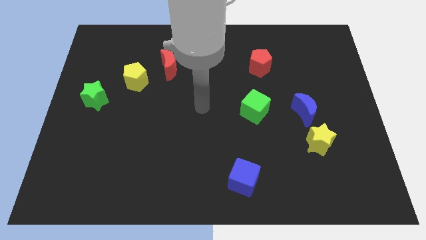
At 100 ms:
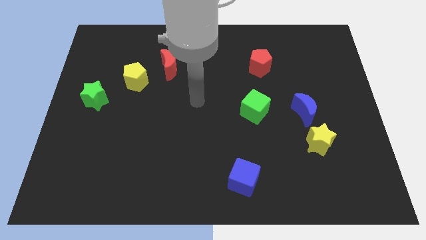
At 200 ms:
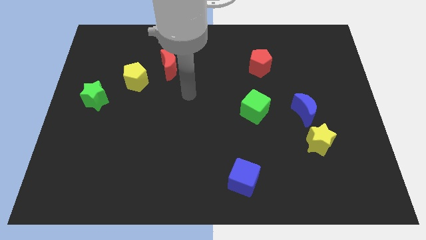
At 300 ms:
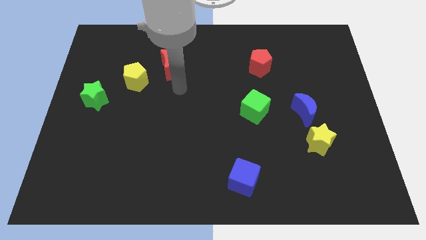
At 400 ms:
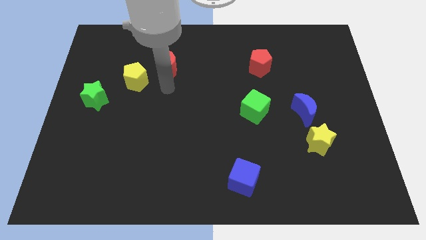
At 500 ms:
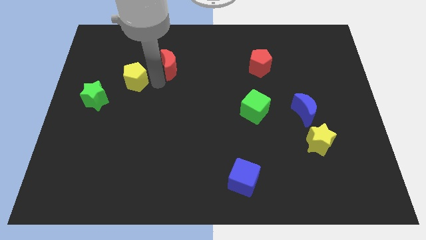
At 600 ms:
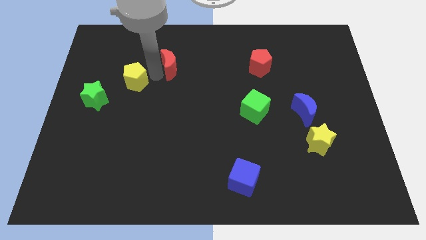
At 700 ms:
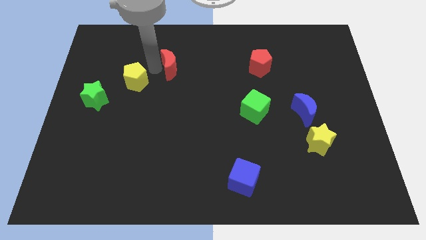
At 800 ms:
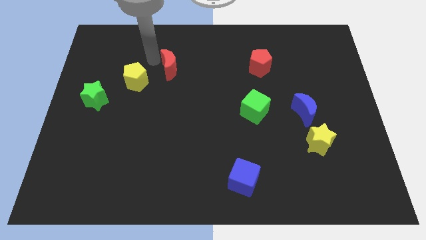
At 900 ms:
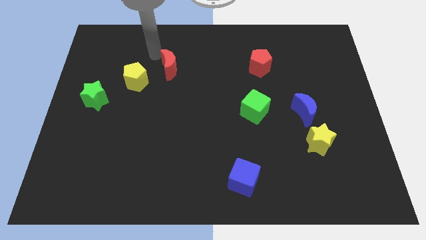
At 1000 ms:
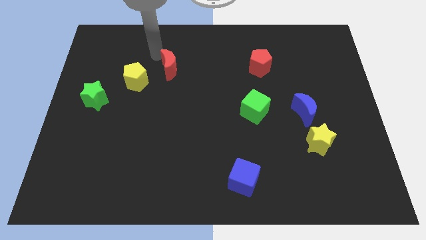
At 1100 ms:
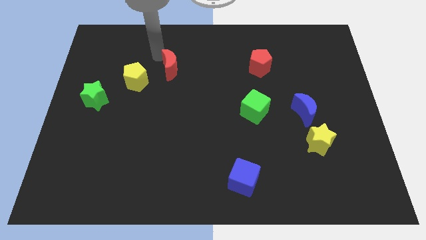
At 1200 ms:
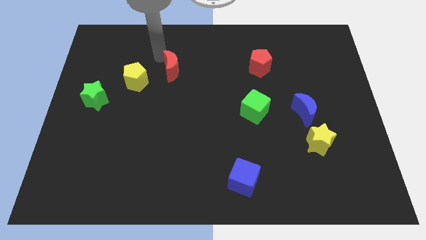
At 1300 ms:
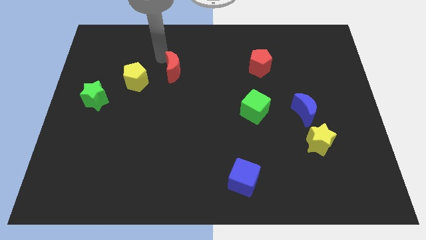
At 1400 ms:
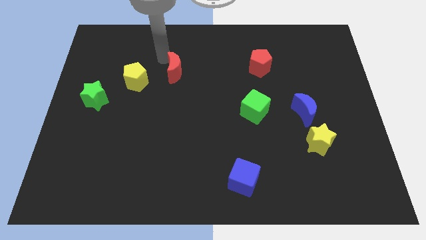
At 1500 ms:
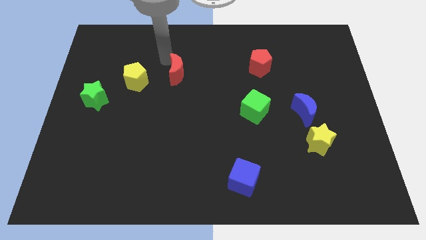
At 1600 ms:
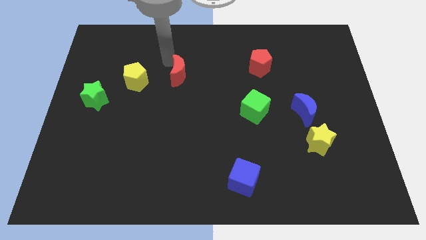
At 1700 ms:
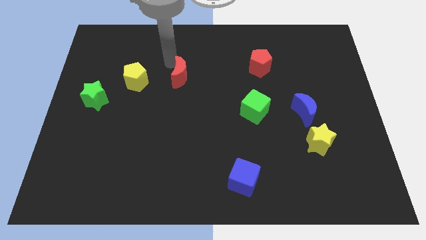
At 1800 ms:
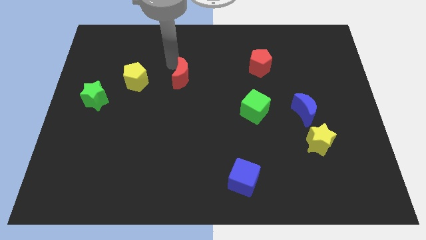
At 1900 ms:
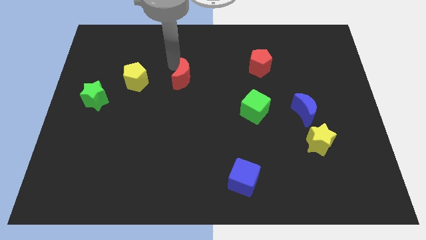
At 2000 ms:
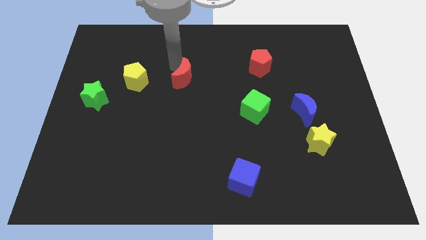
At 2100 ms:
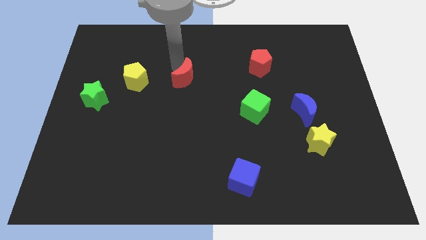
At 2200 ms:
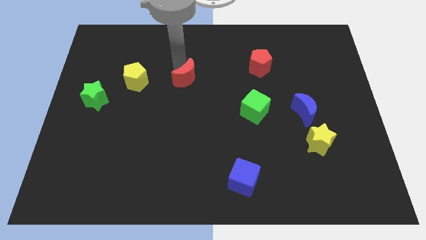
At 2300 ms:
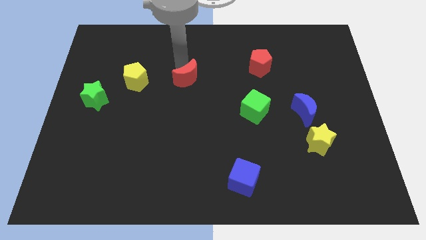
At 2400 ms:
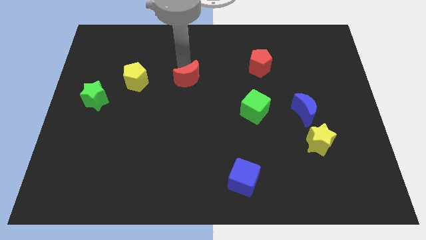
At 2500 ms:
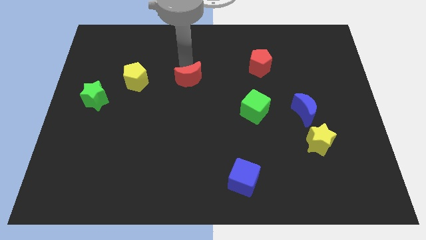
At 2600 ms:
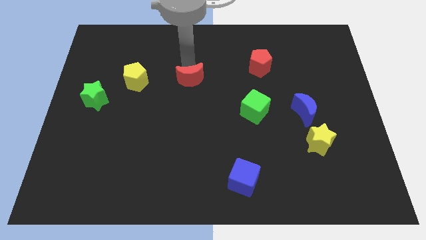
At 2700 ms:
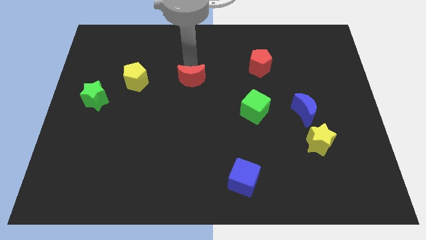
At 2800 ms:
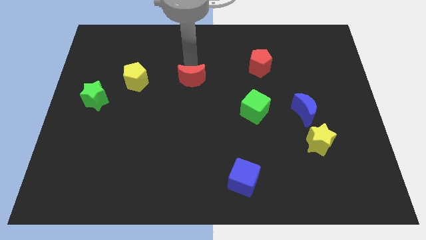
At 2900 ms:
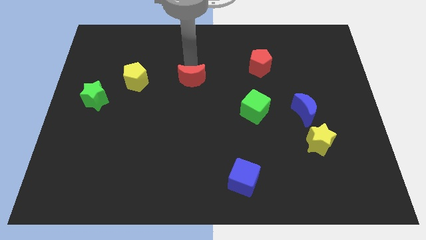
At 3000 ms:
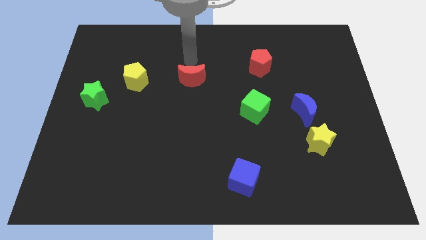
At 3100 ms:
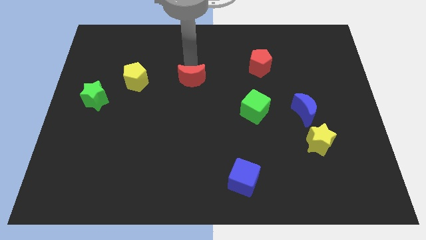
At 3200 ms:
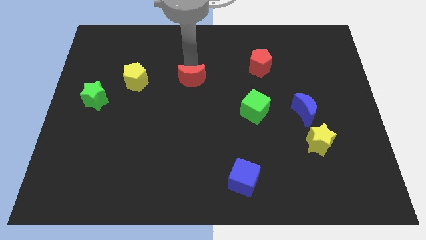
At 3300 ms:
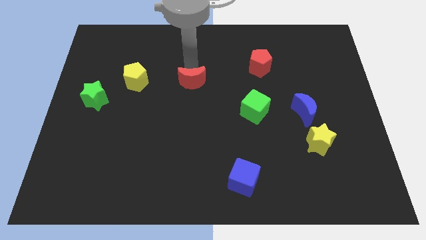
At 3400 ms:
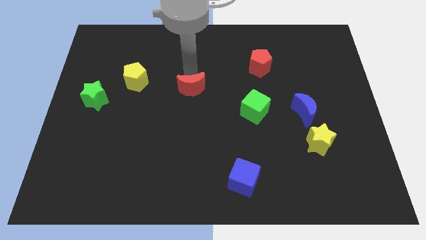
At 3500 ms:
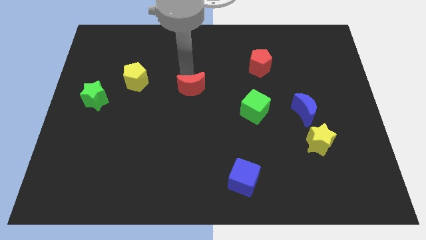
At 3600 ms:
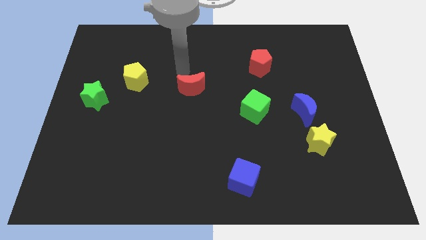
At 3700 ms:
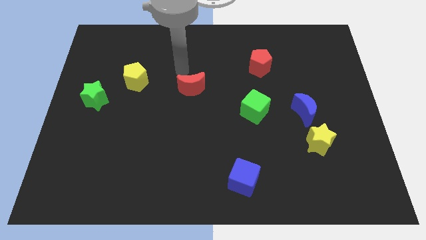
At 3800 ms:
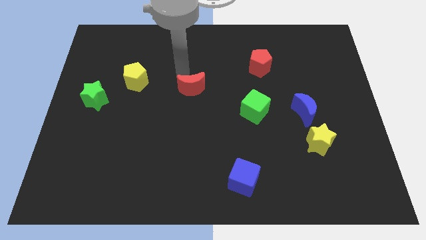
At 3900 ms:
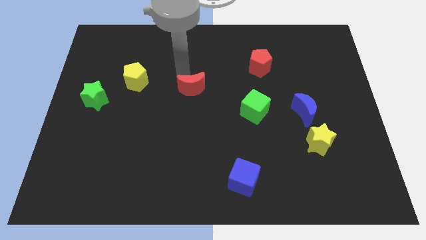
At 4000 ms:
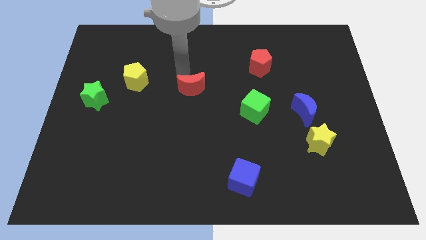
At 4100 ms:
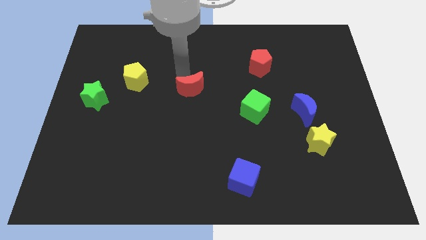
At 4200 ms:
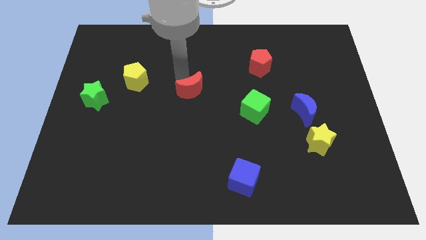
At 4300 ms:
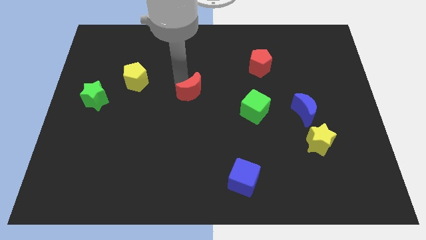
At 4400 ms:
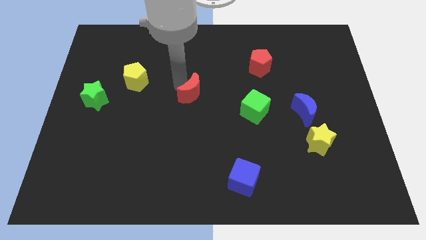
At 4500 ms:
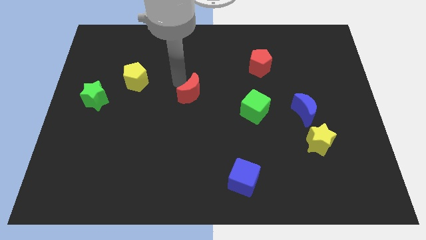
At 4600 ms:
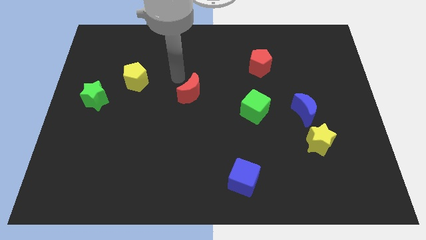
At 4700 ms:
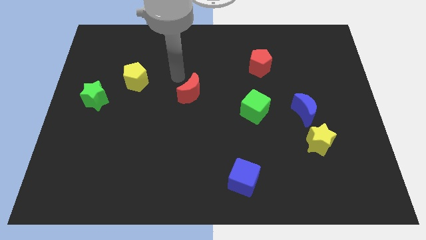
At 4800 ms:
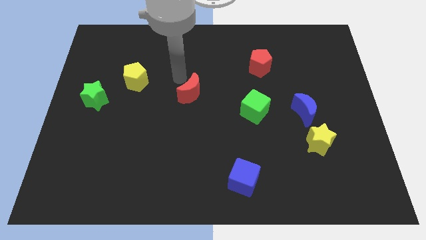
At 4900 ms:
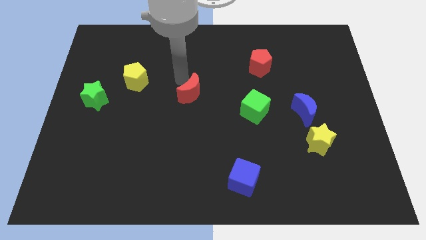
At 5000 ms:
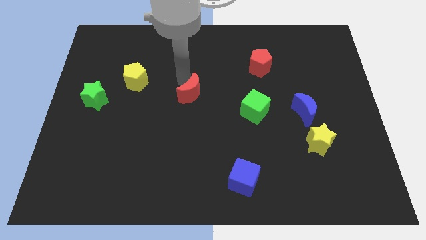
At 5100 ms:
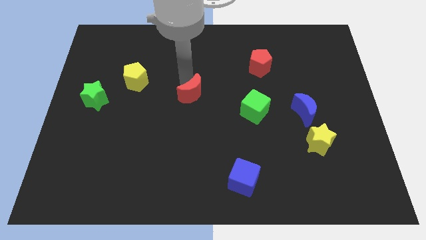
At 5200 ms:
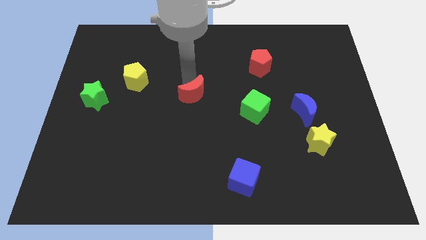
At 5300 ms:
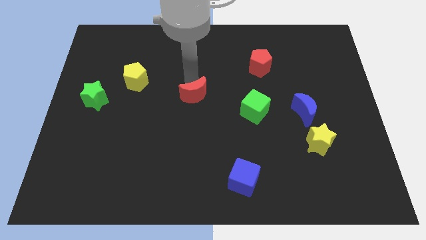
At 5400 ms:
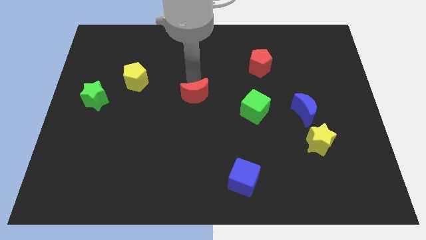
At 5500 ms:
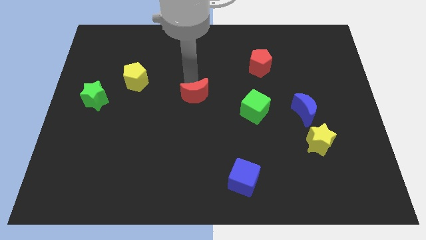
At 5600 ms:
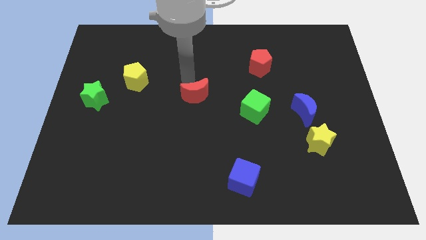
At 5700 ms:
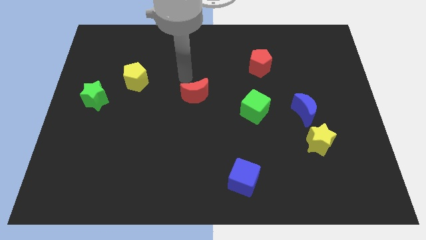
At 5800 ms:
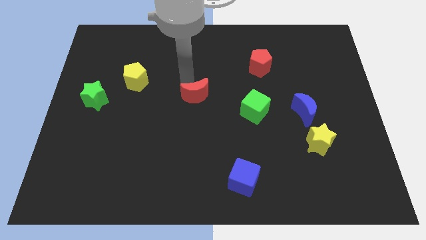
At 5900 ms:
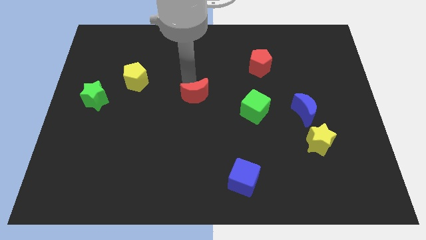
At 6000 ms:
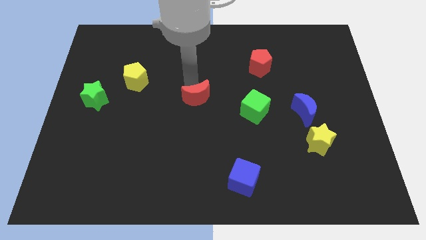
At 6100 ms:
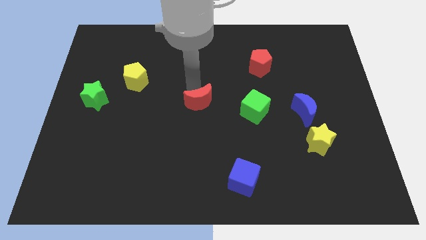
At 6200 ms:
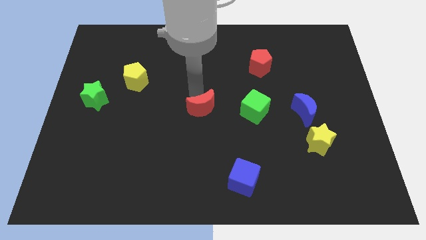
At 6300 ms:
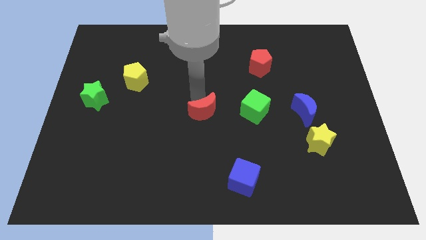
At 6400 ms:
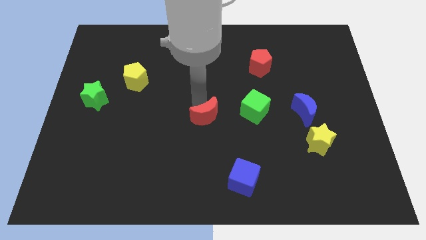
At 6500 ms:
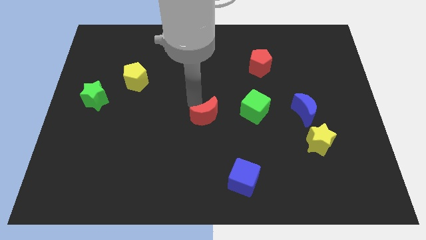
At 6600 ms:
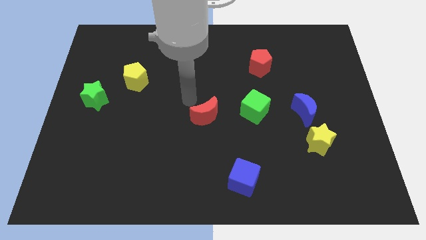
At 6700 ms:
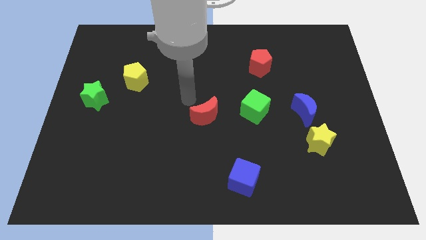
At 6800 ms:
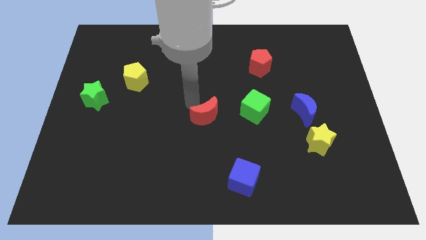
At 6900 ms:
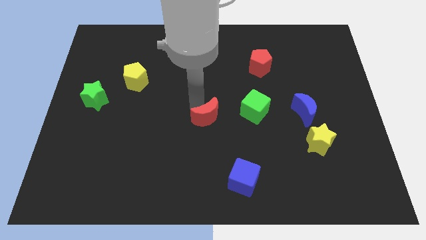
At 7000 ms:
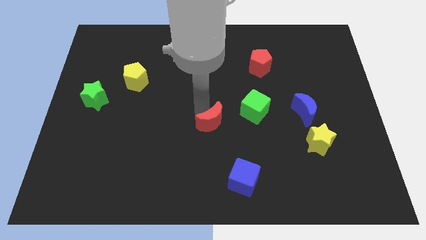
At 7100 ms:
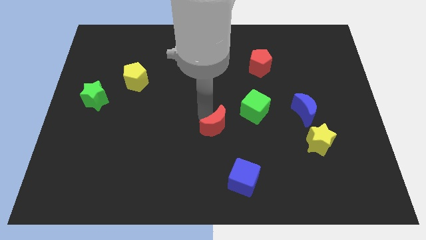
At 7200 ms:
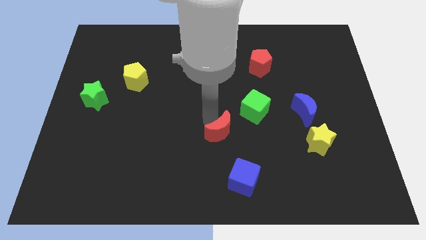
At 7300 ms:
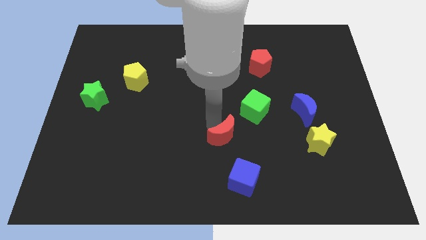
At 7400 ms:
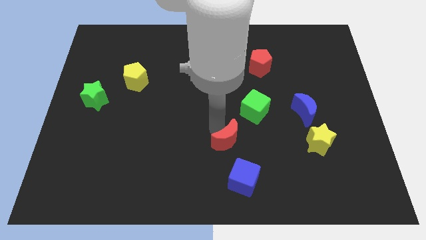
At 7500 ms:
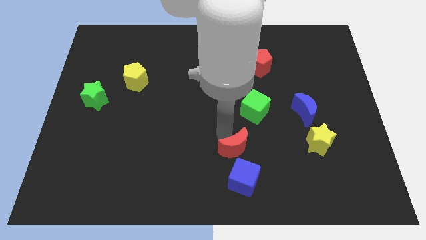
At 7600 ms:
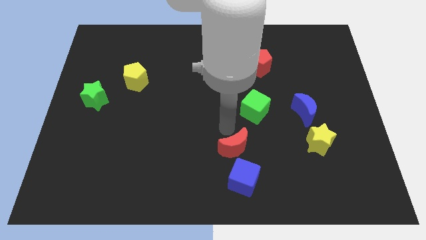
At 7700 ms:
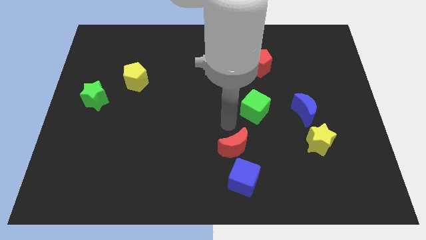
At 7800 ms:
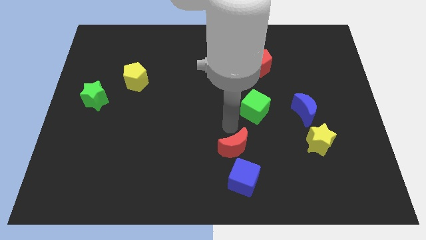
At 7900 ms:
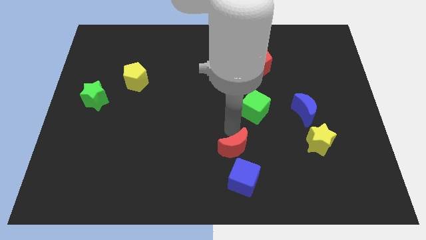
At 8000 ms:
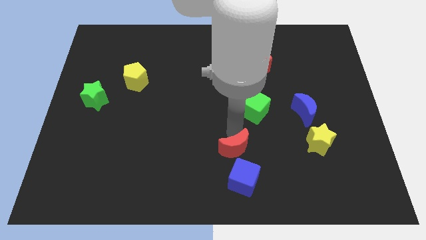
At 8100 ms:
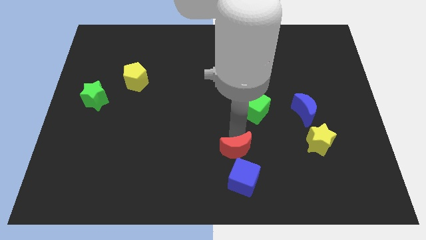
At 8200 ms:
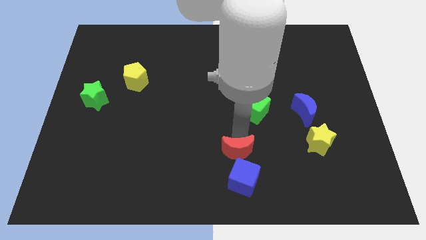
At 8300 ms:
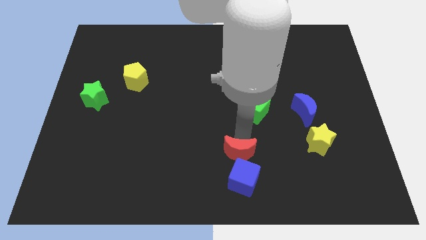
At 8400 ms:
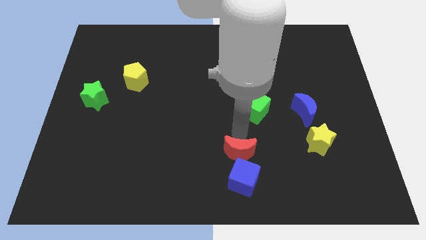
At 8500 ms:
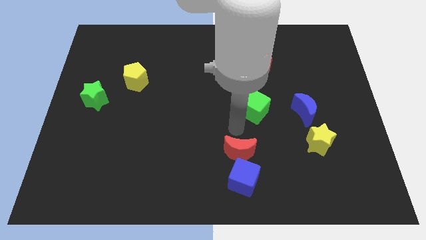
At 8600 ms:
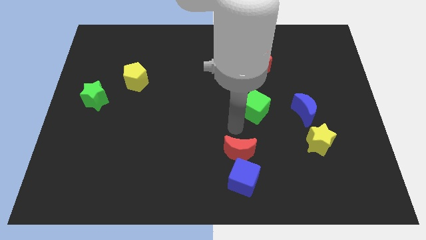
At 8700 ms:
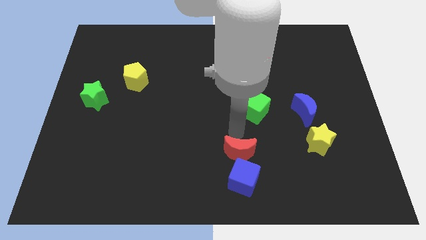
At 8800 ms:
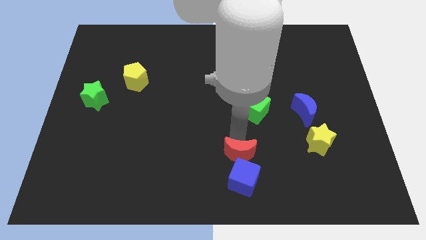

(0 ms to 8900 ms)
slide the red moon towards the blue cube
